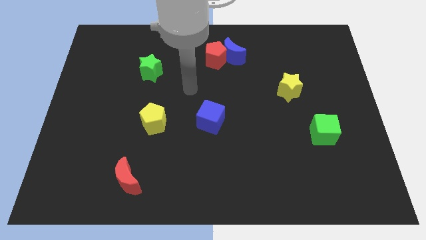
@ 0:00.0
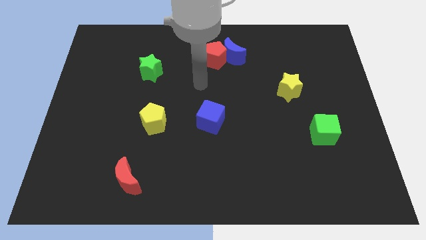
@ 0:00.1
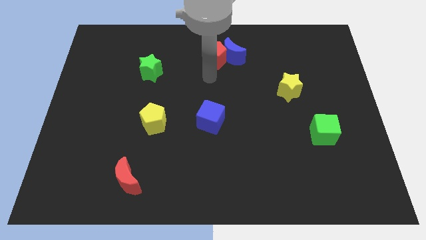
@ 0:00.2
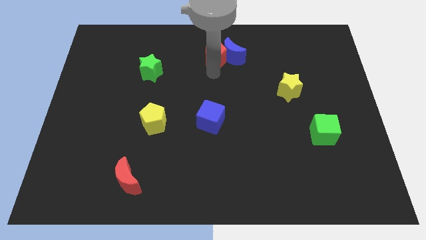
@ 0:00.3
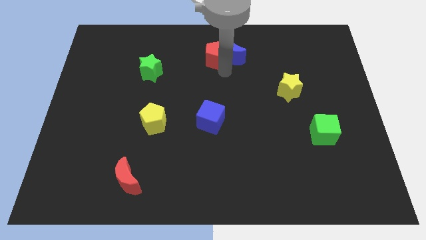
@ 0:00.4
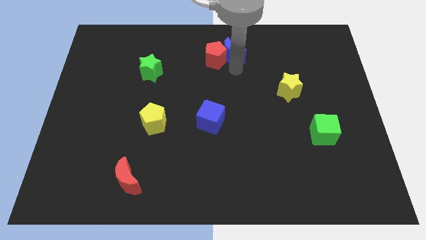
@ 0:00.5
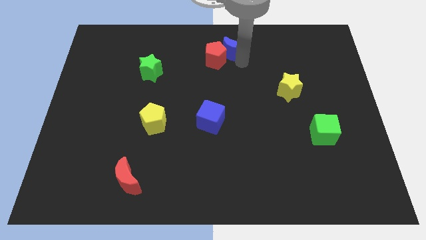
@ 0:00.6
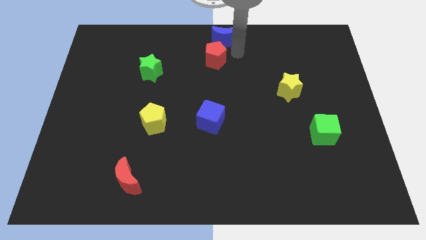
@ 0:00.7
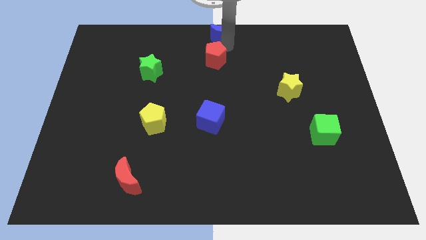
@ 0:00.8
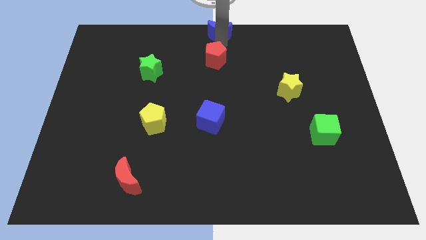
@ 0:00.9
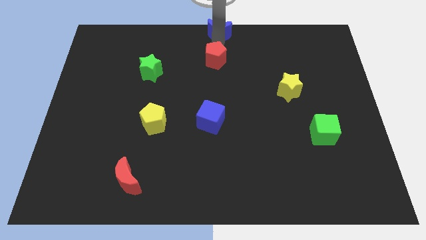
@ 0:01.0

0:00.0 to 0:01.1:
pull the red pentagon apart from the blue moon

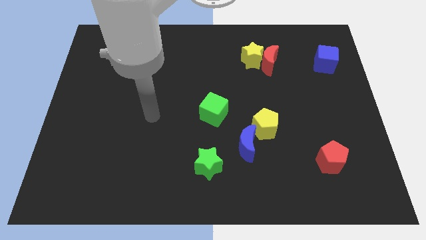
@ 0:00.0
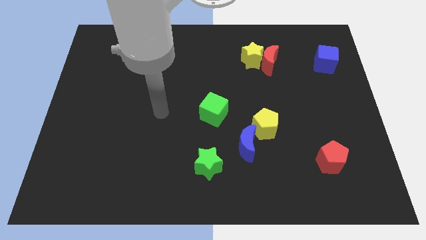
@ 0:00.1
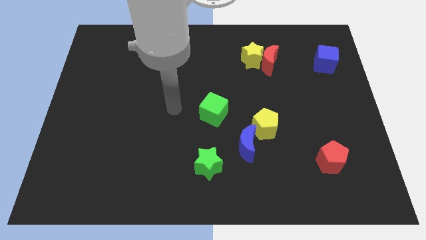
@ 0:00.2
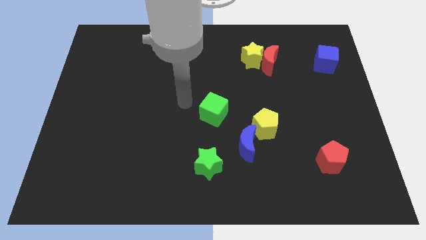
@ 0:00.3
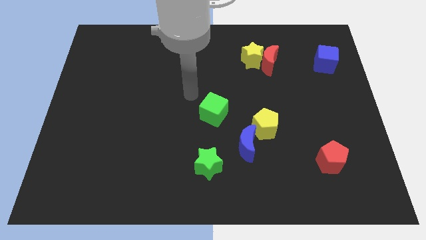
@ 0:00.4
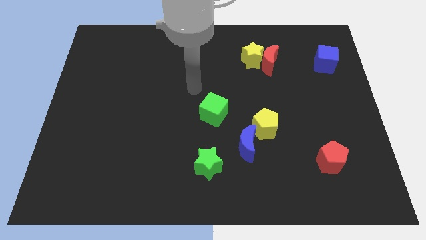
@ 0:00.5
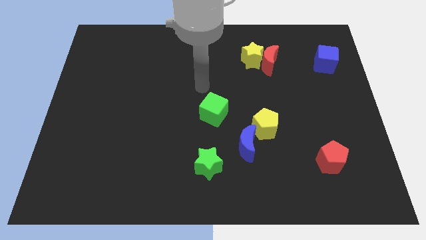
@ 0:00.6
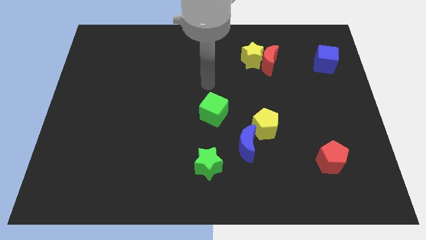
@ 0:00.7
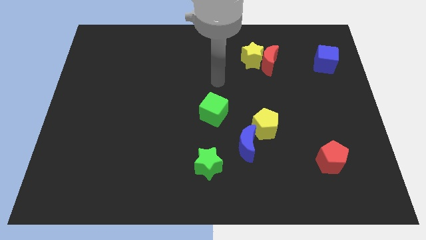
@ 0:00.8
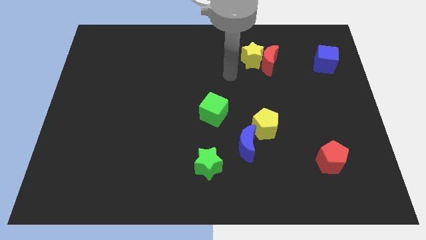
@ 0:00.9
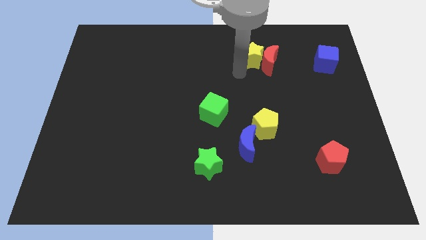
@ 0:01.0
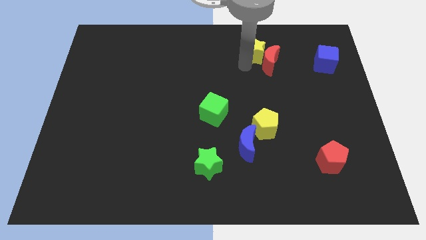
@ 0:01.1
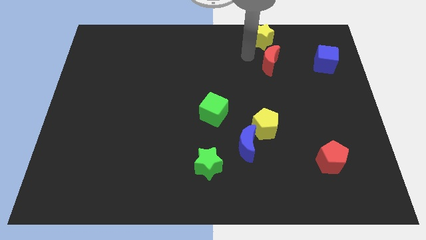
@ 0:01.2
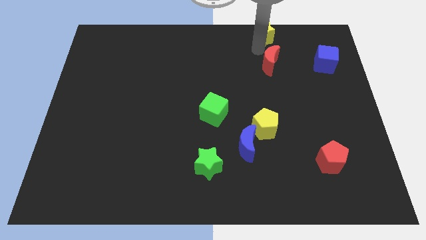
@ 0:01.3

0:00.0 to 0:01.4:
pull the red moon apart from the yellow star

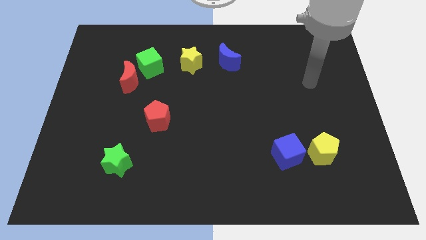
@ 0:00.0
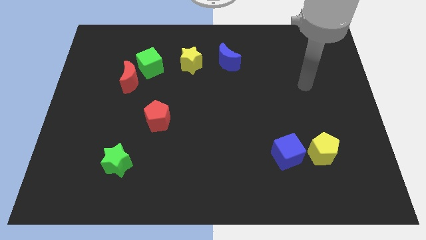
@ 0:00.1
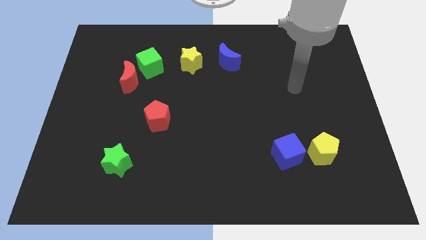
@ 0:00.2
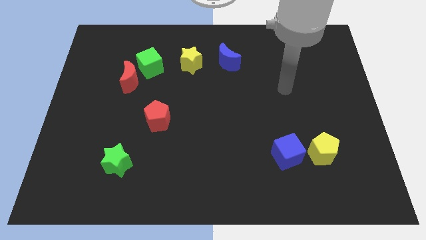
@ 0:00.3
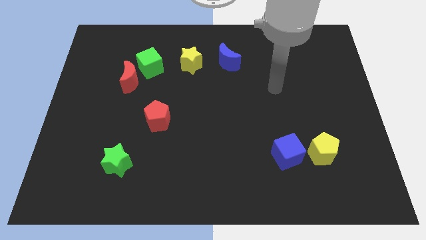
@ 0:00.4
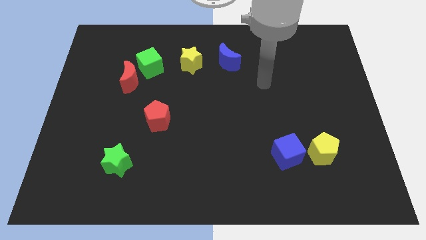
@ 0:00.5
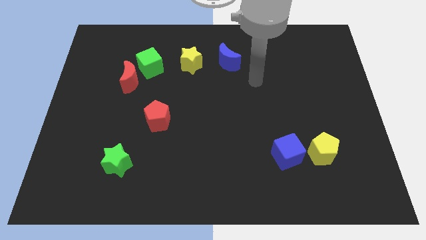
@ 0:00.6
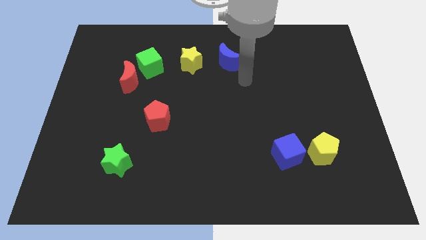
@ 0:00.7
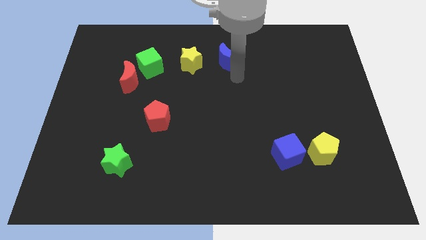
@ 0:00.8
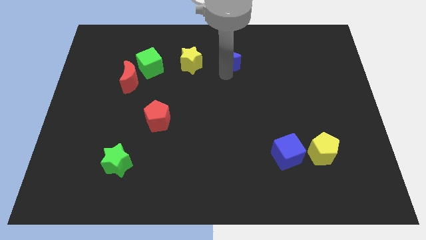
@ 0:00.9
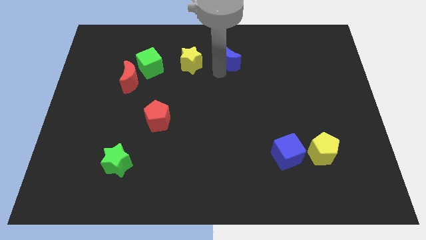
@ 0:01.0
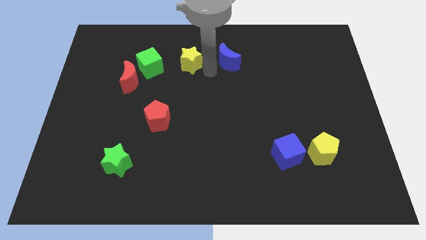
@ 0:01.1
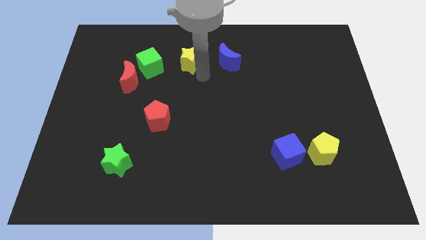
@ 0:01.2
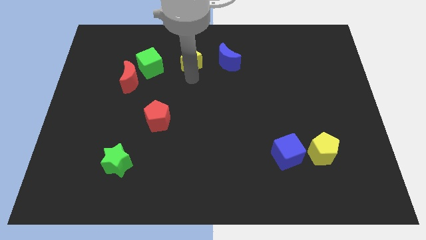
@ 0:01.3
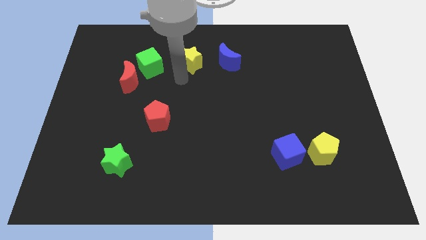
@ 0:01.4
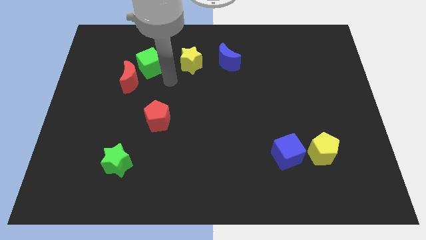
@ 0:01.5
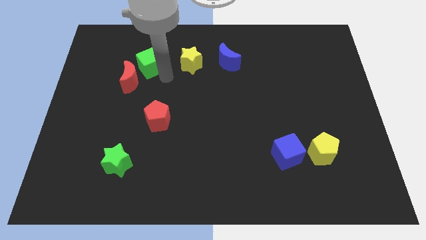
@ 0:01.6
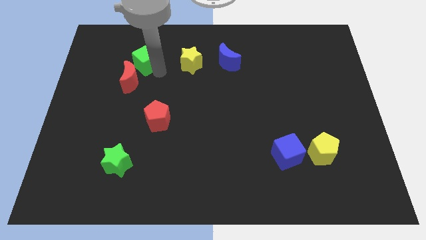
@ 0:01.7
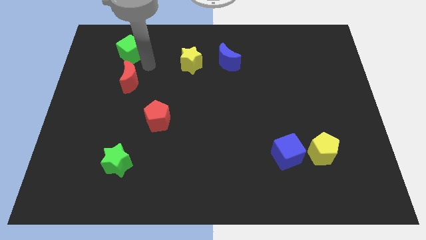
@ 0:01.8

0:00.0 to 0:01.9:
move the red moon away from the green cube

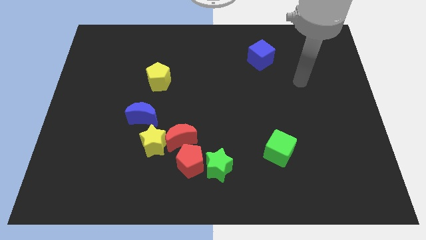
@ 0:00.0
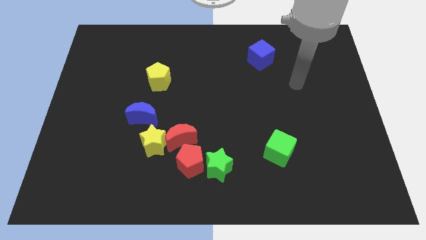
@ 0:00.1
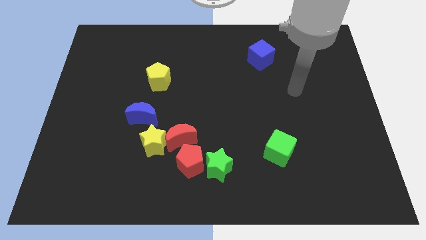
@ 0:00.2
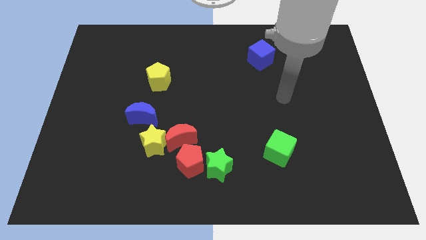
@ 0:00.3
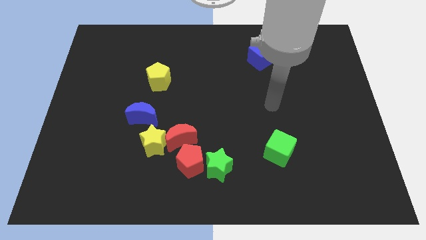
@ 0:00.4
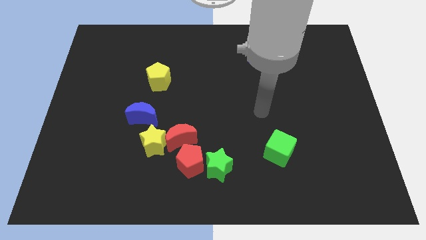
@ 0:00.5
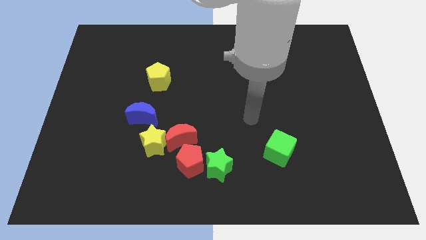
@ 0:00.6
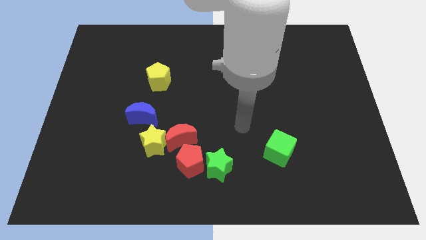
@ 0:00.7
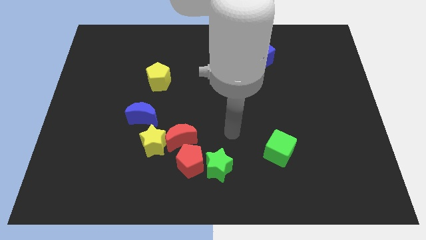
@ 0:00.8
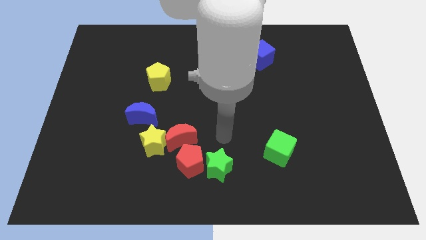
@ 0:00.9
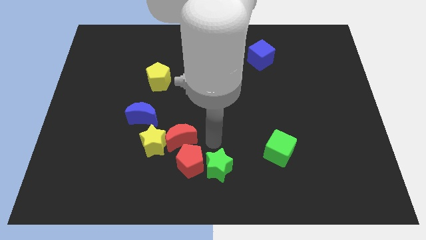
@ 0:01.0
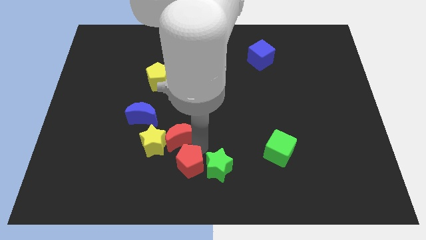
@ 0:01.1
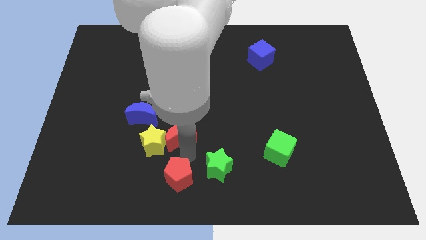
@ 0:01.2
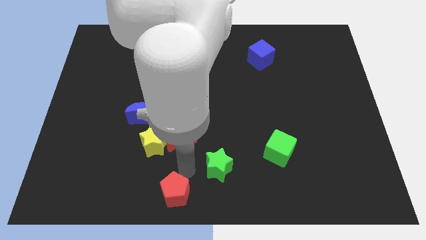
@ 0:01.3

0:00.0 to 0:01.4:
separate the green star from the red pentagon

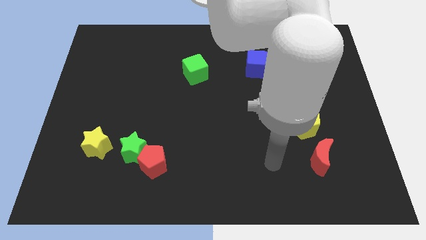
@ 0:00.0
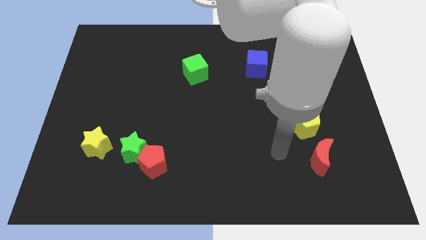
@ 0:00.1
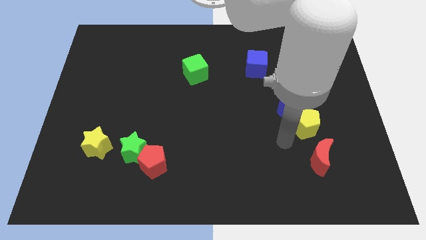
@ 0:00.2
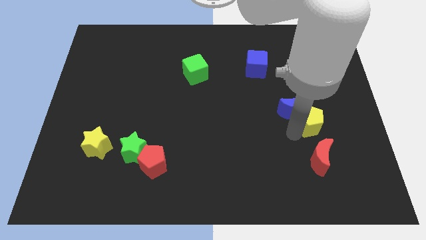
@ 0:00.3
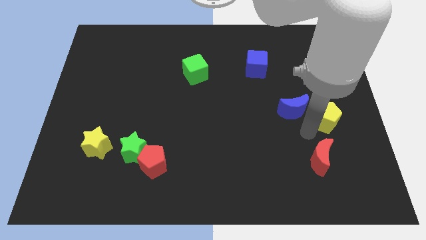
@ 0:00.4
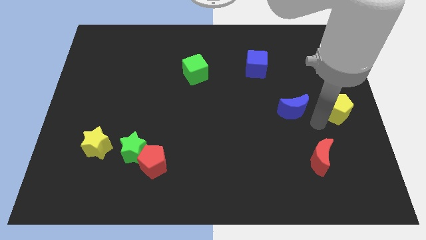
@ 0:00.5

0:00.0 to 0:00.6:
move the blue moon away from the yellow pentagon

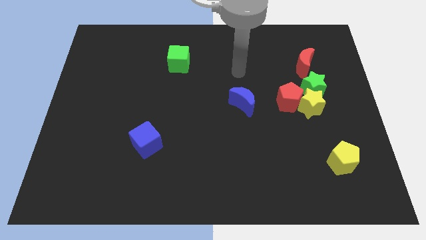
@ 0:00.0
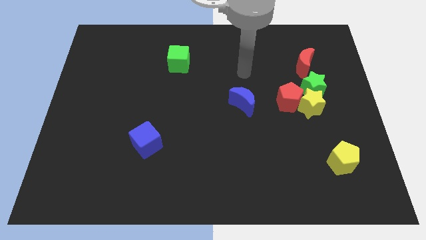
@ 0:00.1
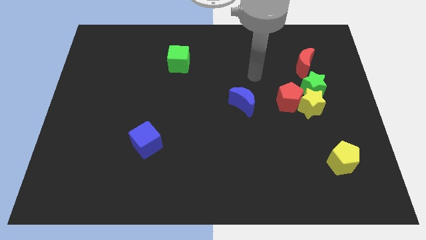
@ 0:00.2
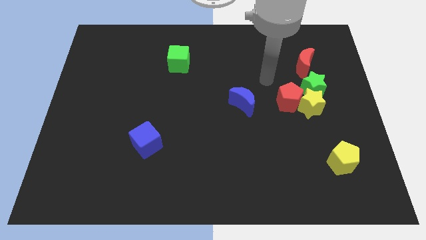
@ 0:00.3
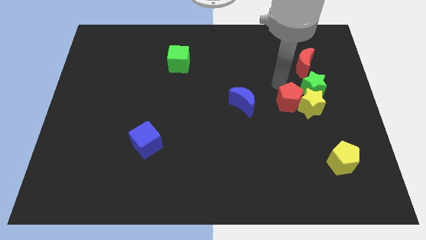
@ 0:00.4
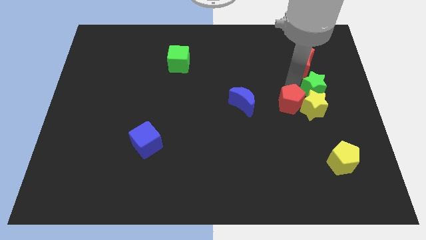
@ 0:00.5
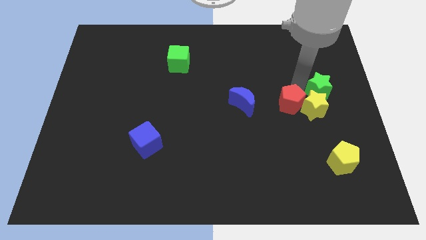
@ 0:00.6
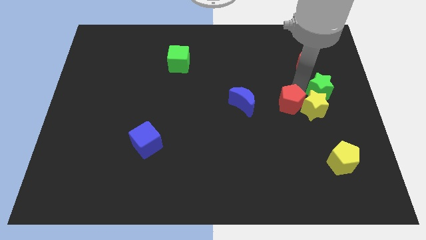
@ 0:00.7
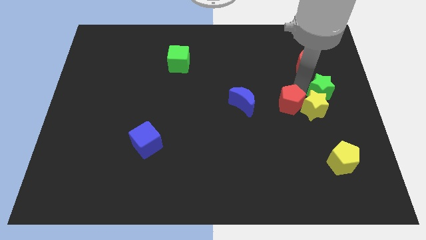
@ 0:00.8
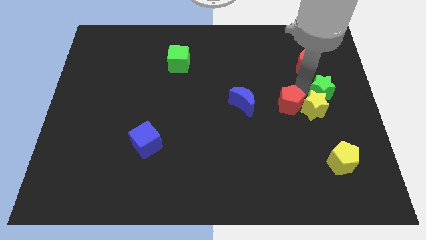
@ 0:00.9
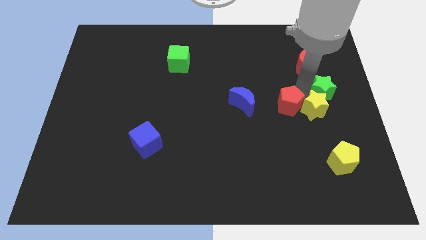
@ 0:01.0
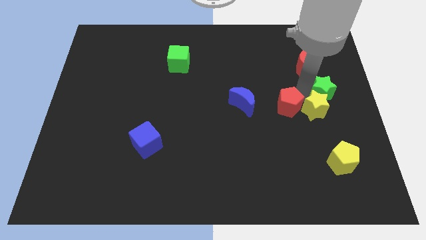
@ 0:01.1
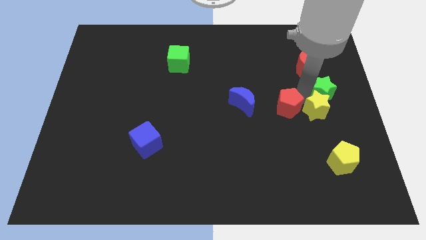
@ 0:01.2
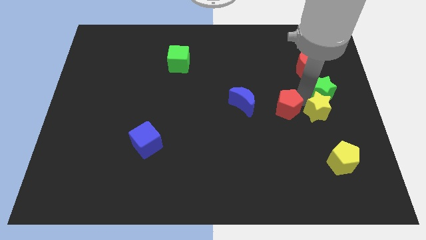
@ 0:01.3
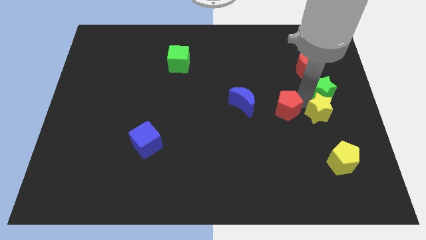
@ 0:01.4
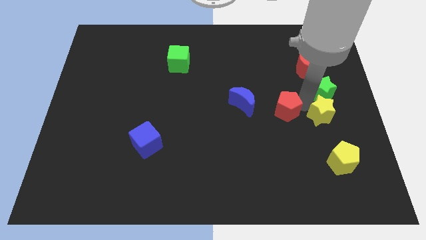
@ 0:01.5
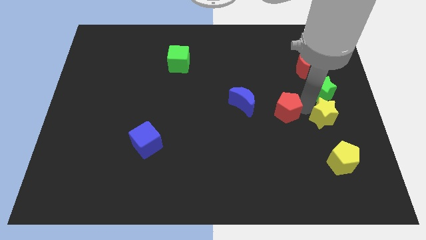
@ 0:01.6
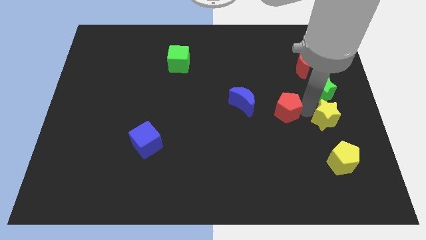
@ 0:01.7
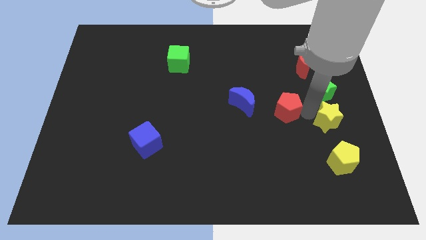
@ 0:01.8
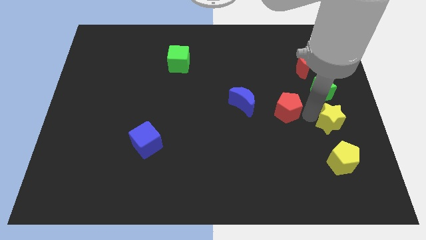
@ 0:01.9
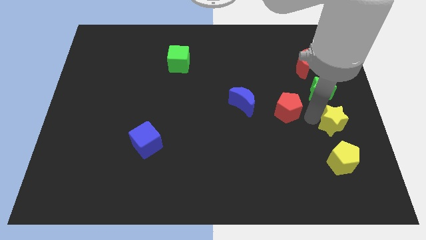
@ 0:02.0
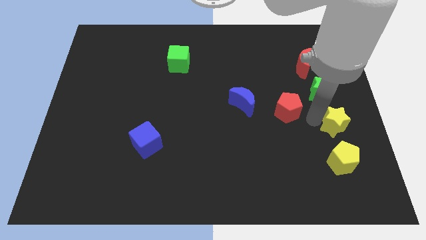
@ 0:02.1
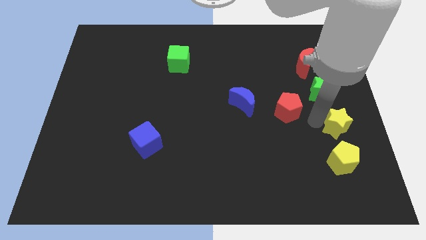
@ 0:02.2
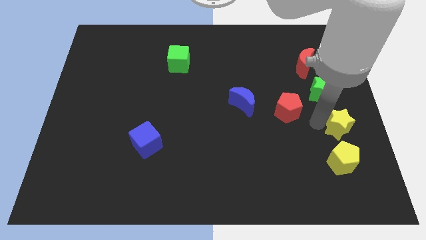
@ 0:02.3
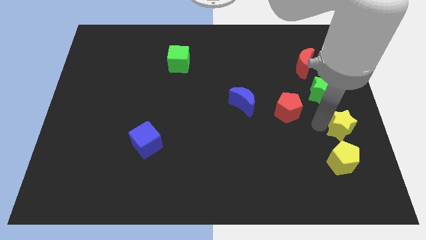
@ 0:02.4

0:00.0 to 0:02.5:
move the yellow star away from the red pentagon and green star

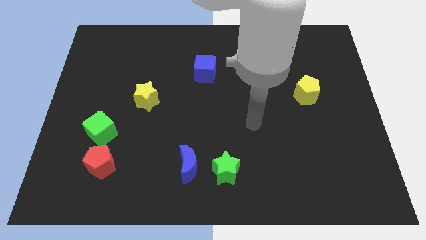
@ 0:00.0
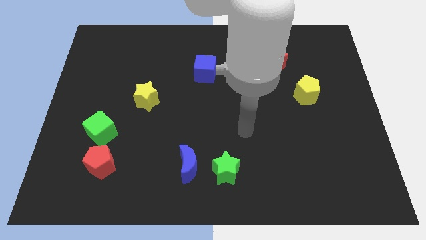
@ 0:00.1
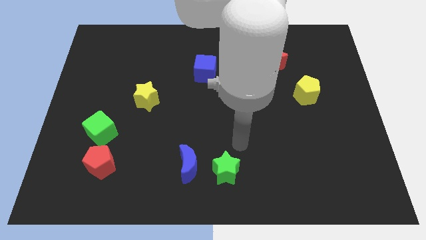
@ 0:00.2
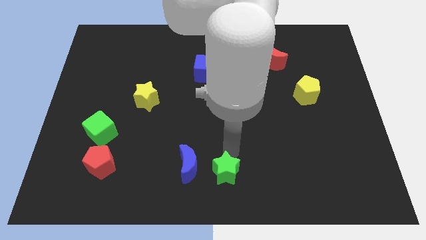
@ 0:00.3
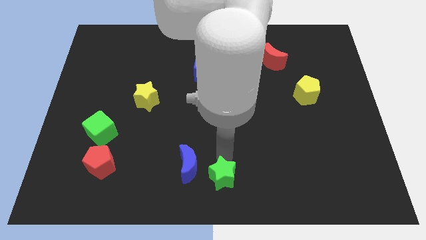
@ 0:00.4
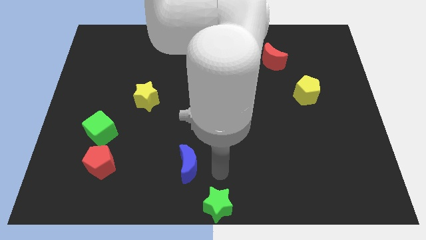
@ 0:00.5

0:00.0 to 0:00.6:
separate the blue moon from the green star
